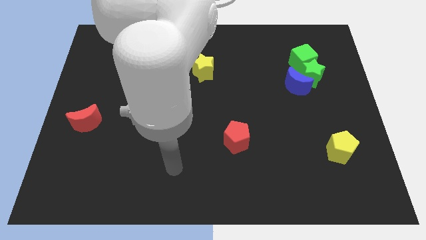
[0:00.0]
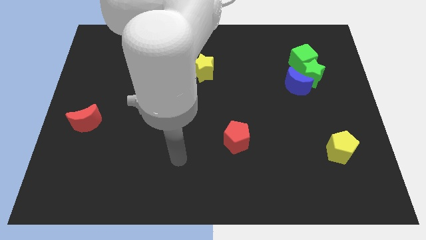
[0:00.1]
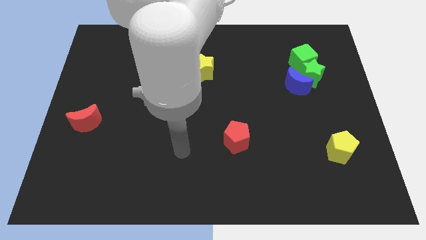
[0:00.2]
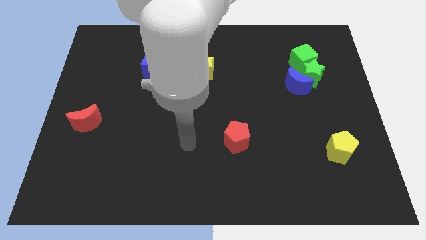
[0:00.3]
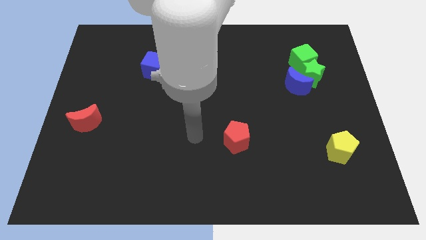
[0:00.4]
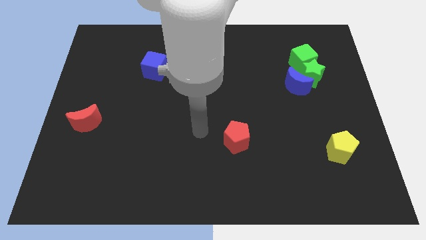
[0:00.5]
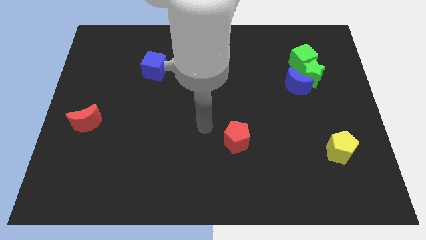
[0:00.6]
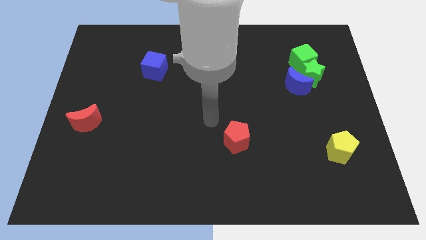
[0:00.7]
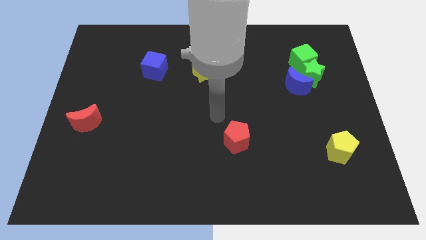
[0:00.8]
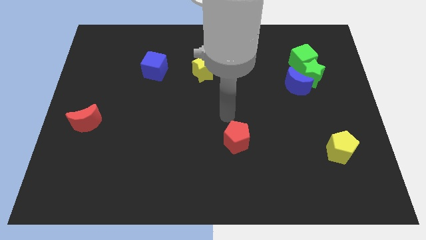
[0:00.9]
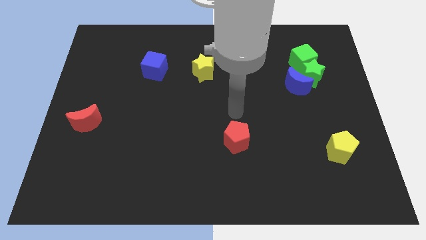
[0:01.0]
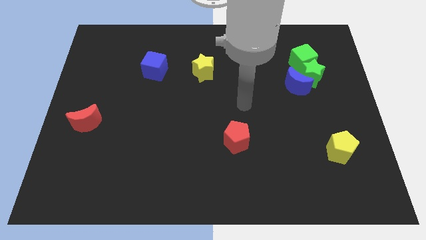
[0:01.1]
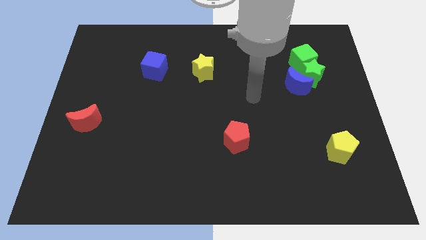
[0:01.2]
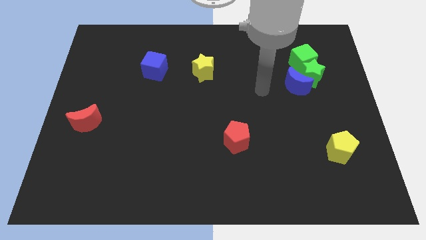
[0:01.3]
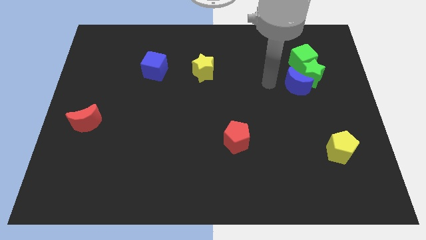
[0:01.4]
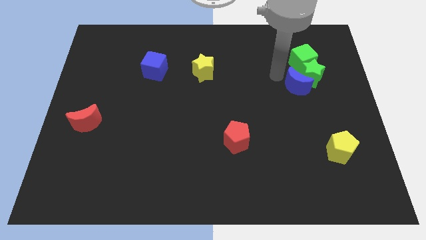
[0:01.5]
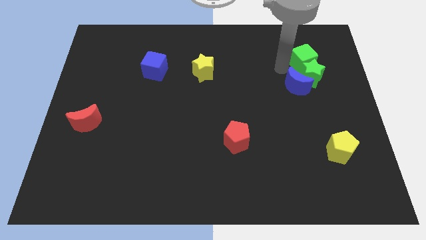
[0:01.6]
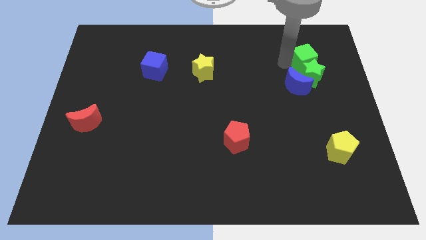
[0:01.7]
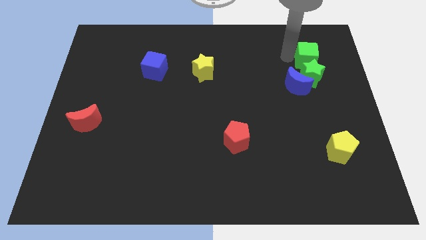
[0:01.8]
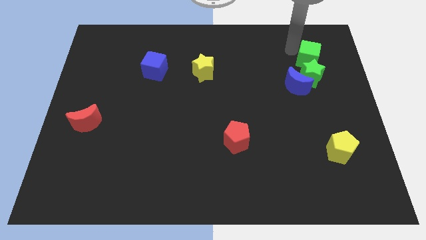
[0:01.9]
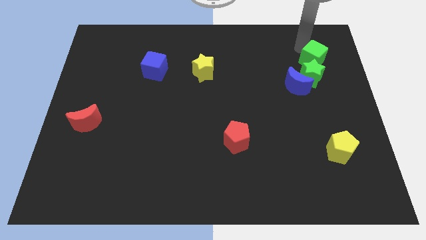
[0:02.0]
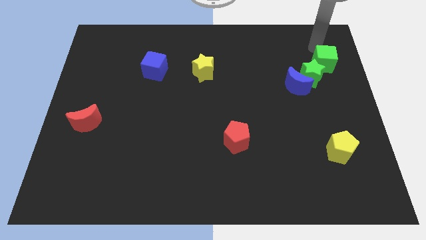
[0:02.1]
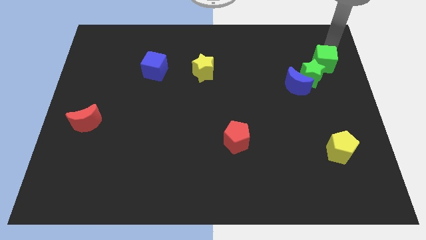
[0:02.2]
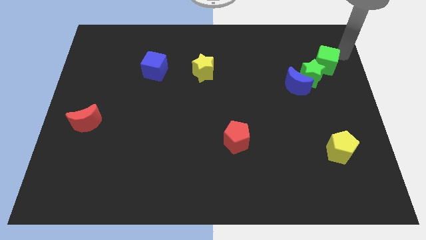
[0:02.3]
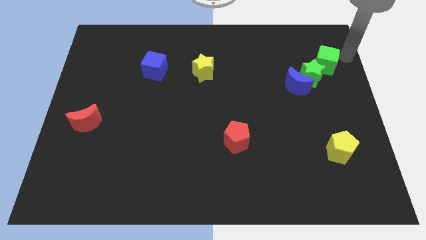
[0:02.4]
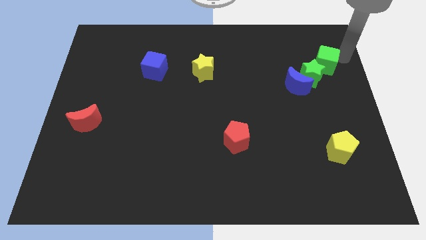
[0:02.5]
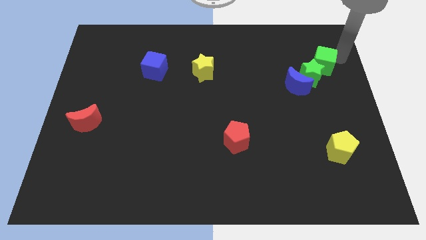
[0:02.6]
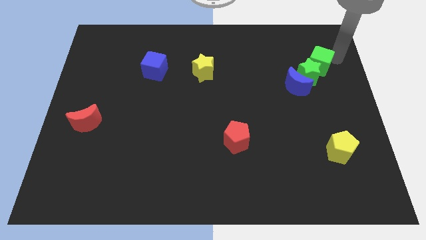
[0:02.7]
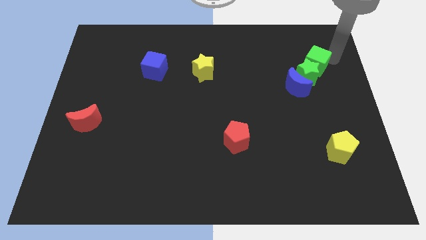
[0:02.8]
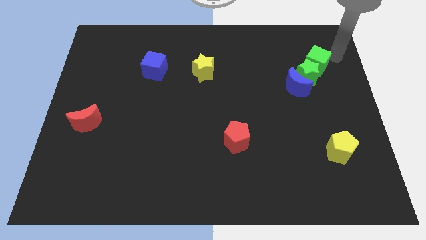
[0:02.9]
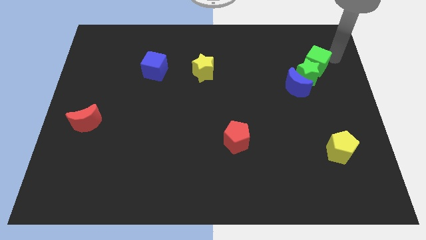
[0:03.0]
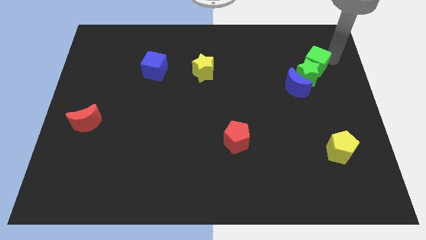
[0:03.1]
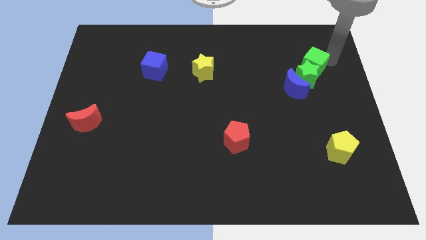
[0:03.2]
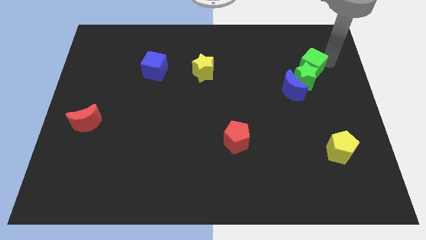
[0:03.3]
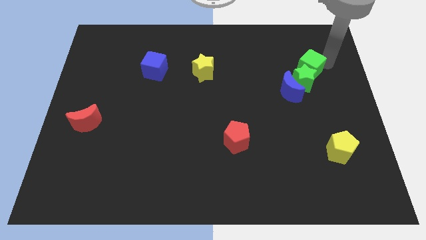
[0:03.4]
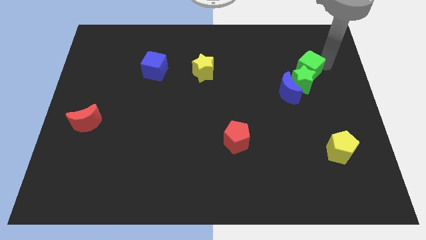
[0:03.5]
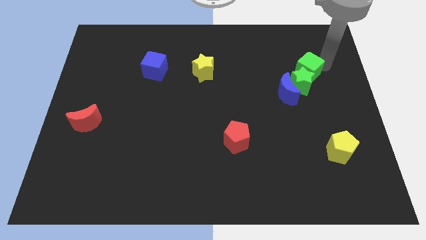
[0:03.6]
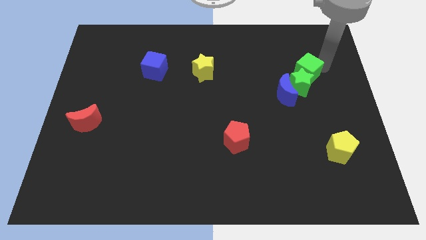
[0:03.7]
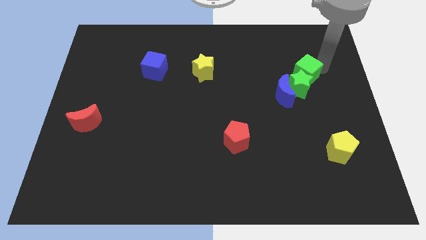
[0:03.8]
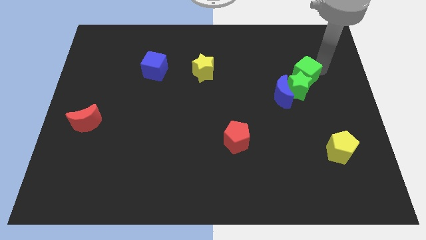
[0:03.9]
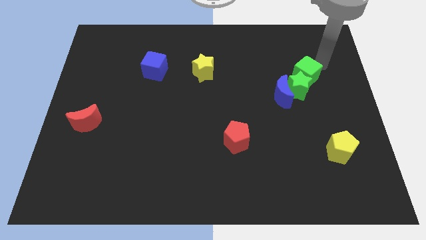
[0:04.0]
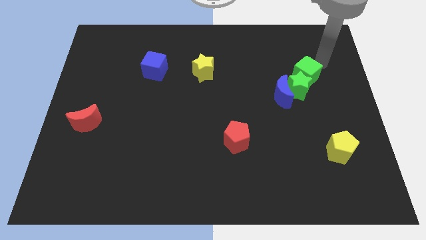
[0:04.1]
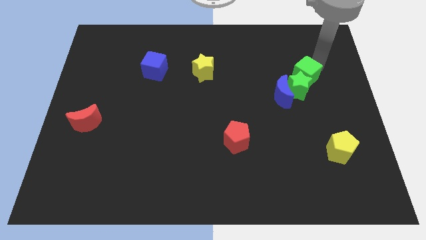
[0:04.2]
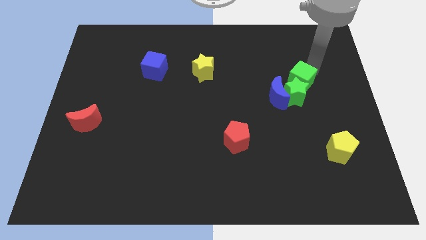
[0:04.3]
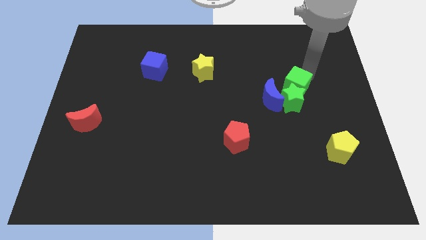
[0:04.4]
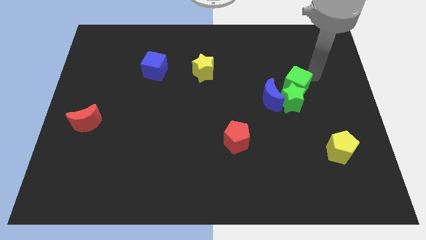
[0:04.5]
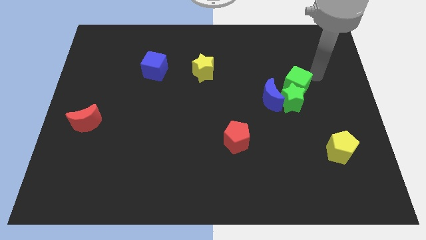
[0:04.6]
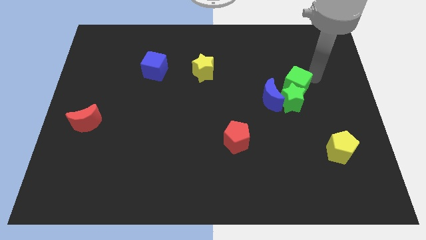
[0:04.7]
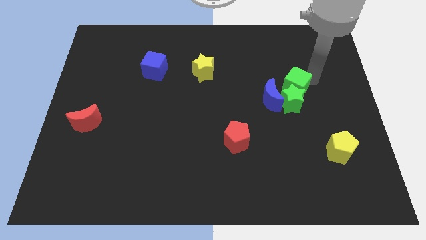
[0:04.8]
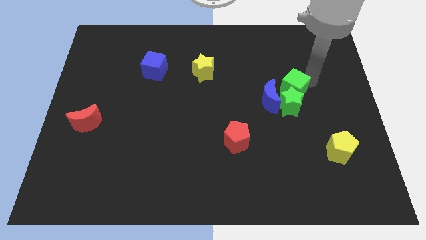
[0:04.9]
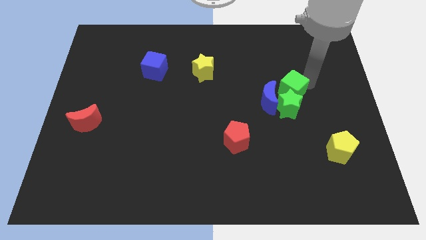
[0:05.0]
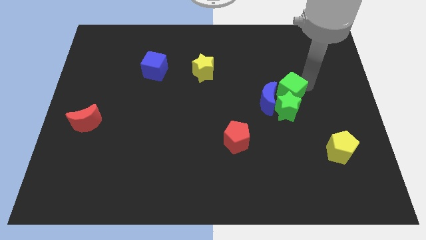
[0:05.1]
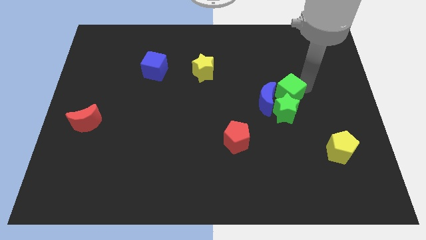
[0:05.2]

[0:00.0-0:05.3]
move the green cube towards the blue moon

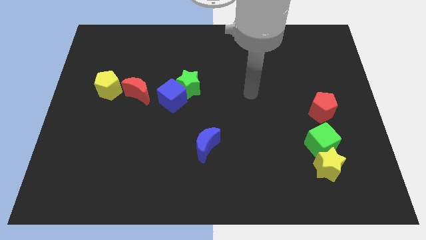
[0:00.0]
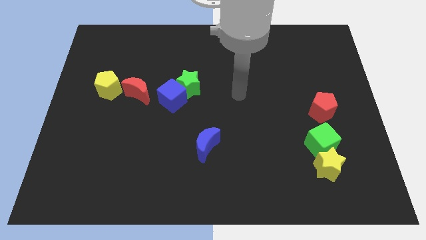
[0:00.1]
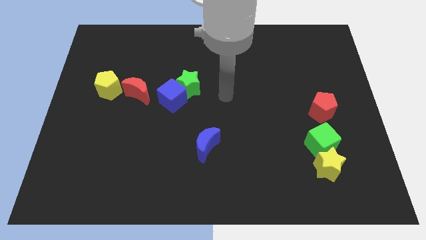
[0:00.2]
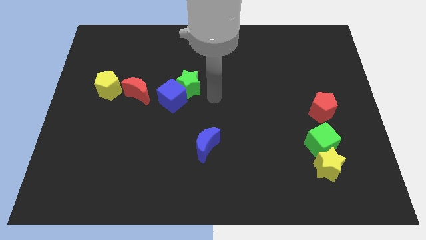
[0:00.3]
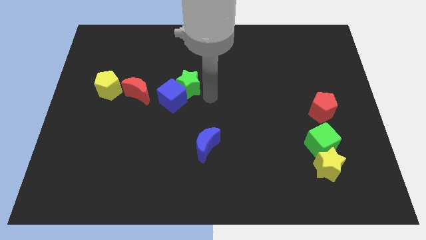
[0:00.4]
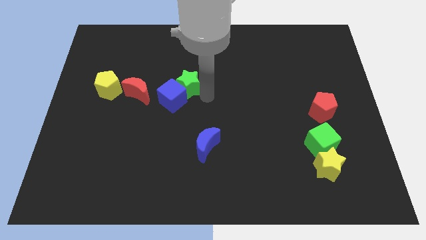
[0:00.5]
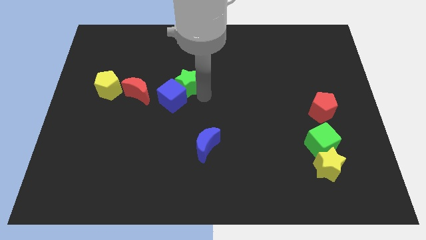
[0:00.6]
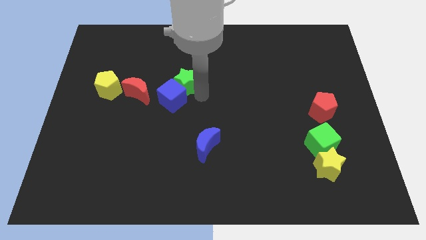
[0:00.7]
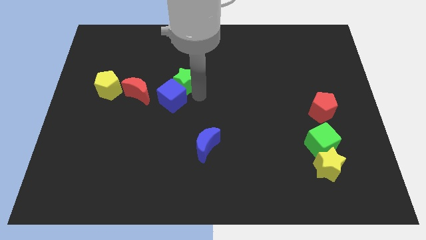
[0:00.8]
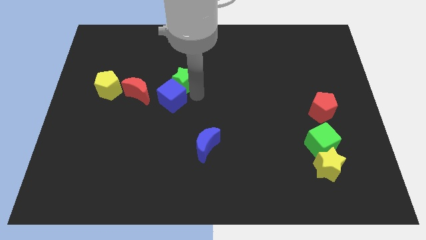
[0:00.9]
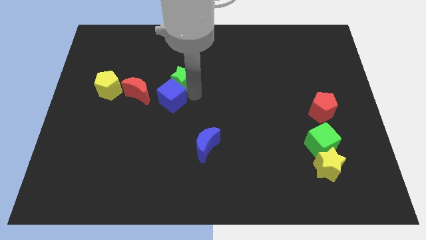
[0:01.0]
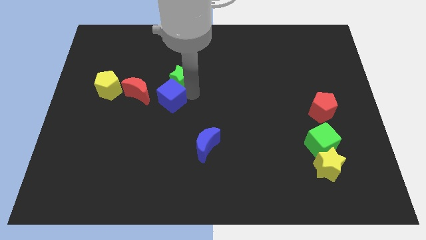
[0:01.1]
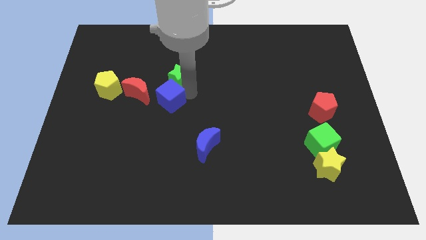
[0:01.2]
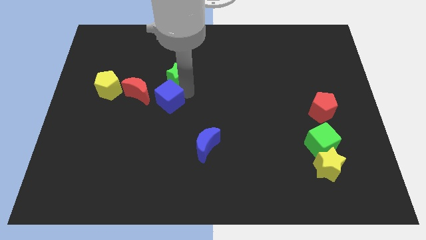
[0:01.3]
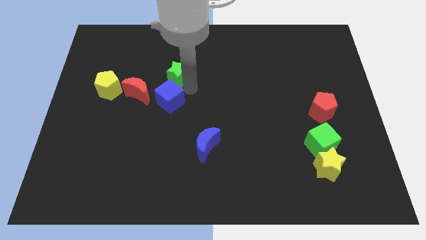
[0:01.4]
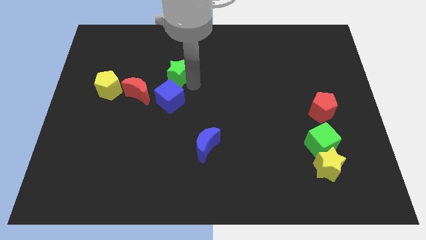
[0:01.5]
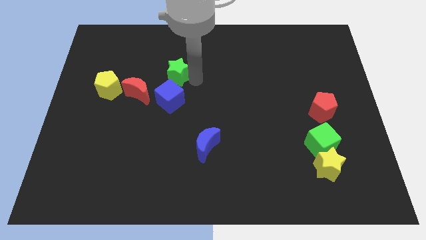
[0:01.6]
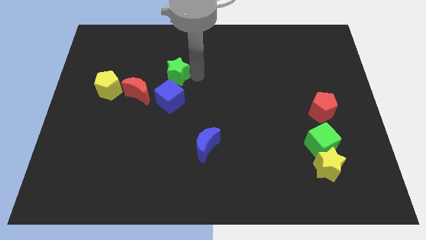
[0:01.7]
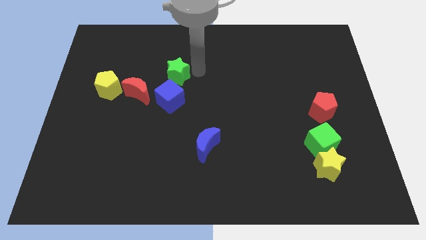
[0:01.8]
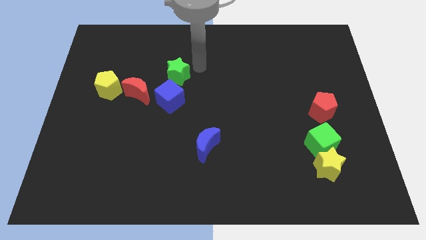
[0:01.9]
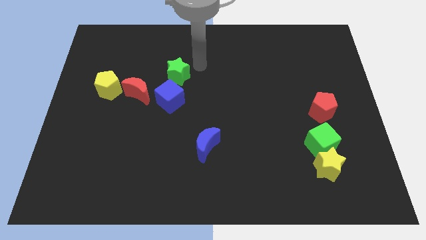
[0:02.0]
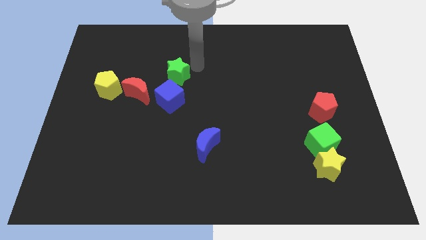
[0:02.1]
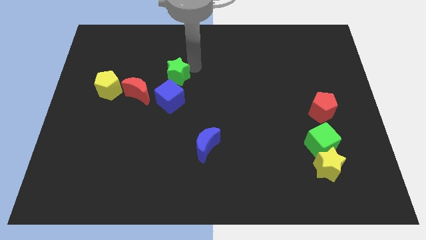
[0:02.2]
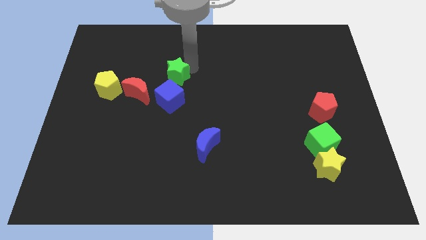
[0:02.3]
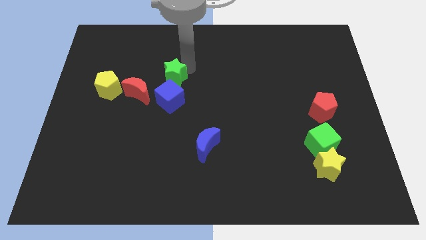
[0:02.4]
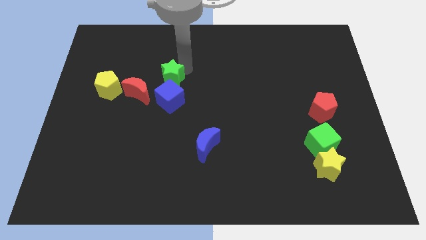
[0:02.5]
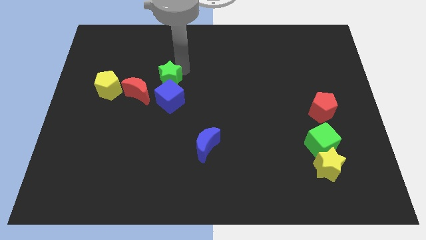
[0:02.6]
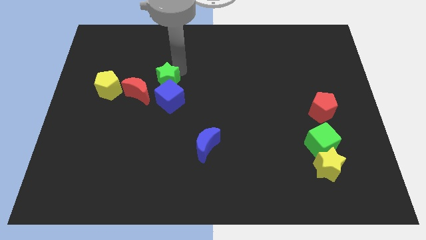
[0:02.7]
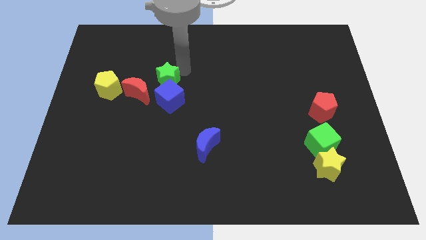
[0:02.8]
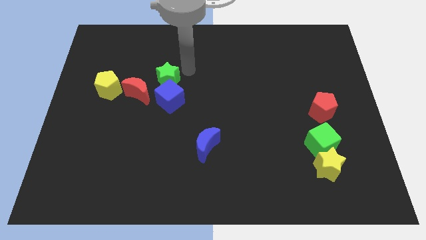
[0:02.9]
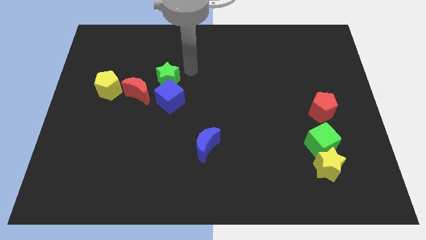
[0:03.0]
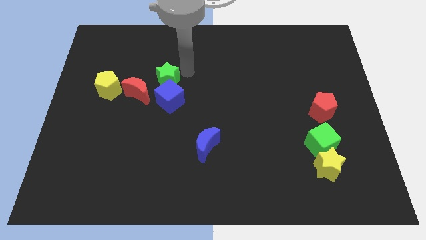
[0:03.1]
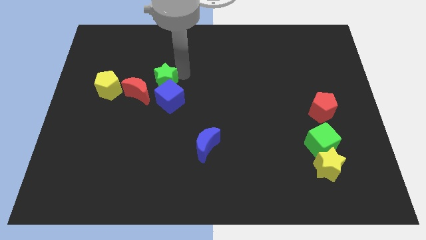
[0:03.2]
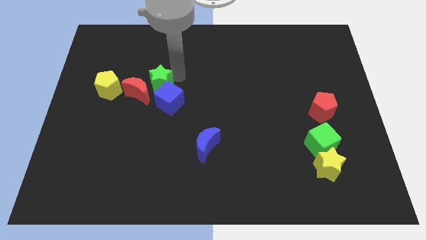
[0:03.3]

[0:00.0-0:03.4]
move the green star towards the red moon
